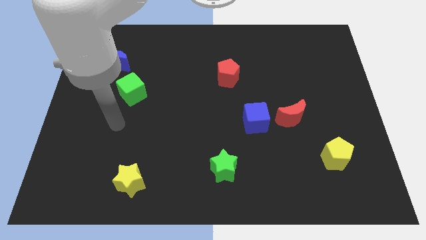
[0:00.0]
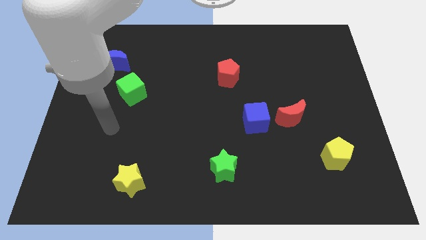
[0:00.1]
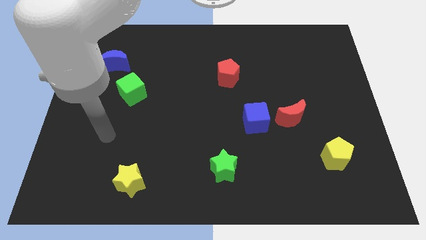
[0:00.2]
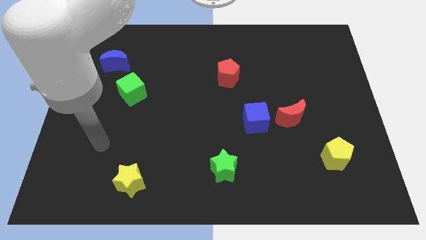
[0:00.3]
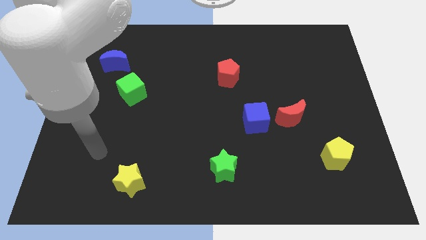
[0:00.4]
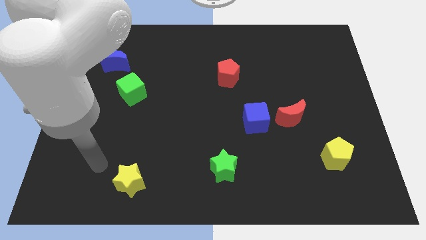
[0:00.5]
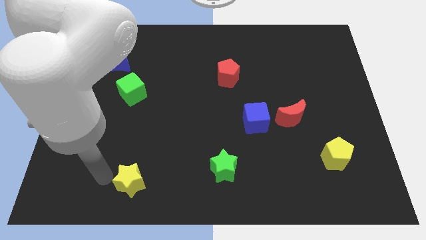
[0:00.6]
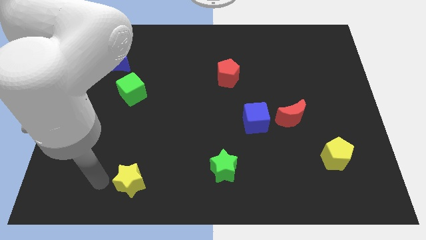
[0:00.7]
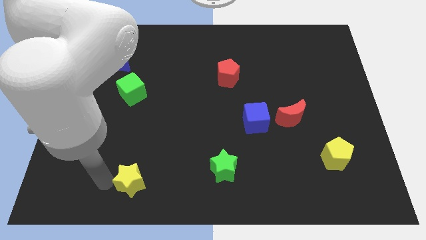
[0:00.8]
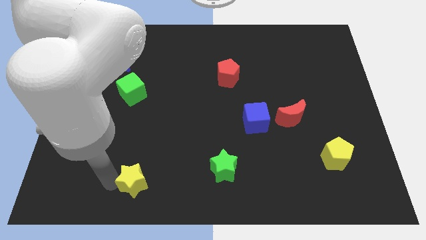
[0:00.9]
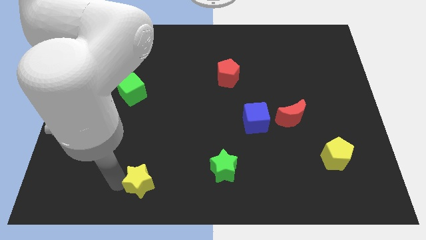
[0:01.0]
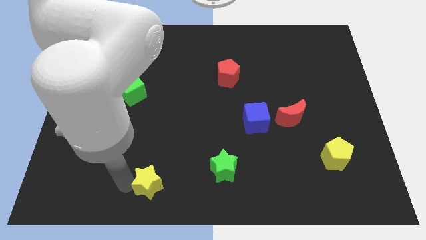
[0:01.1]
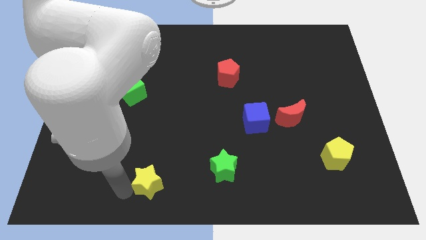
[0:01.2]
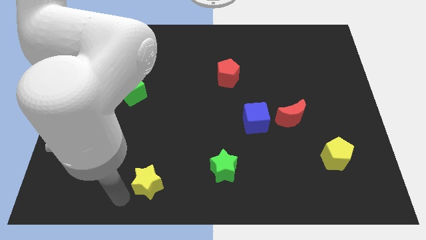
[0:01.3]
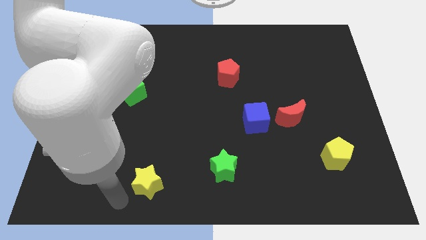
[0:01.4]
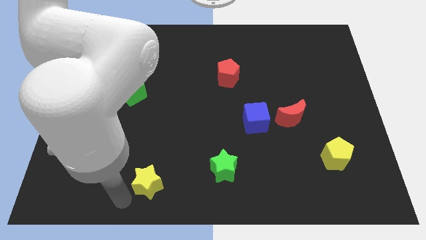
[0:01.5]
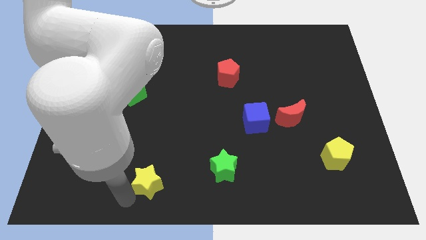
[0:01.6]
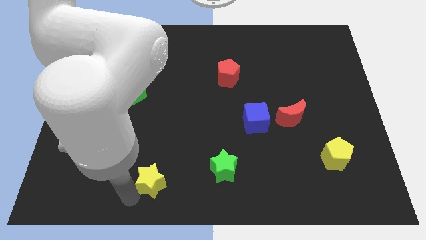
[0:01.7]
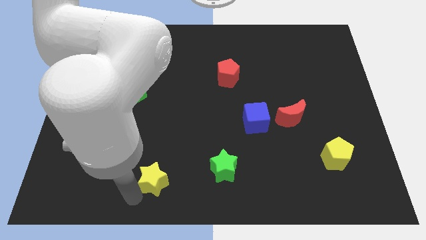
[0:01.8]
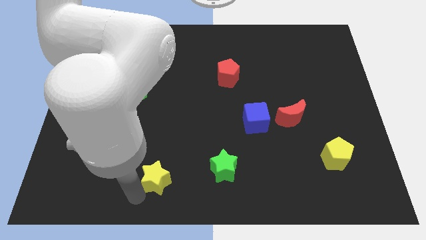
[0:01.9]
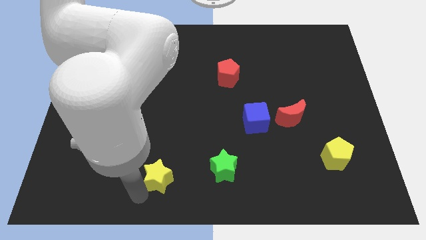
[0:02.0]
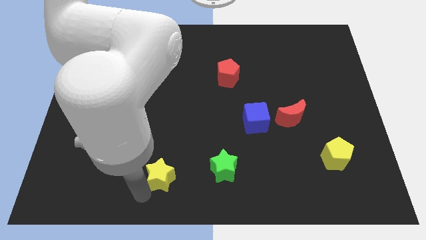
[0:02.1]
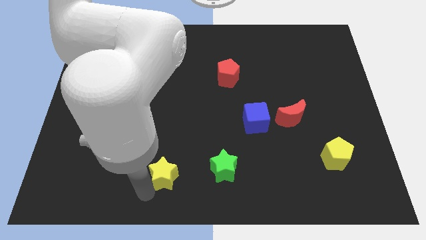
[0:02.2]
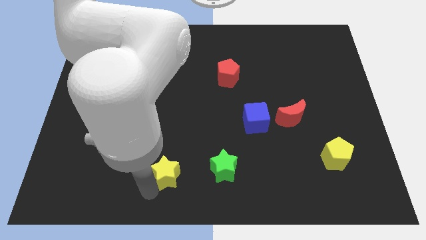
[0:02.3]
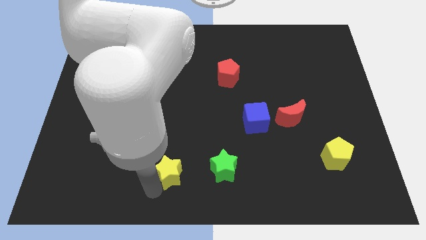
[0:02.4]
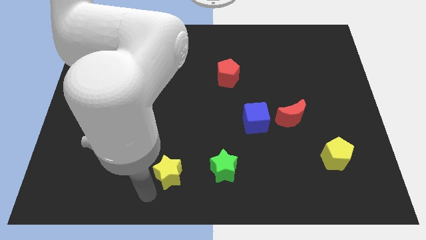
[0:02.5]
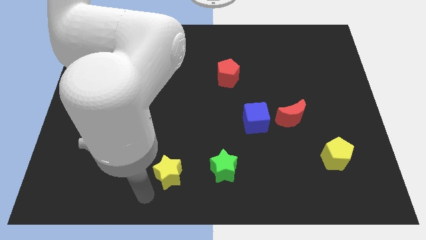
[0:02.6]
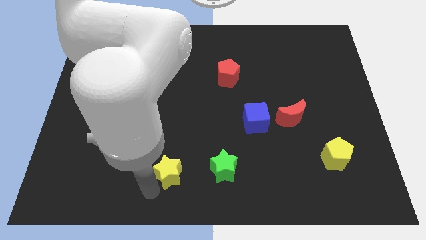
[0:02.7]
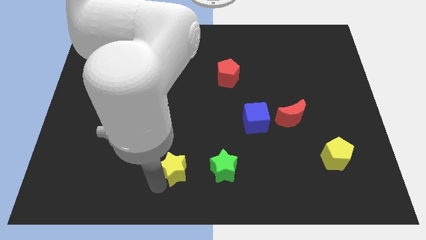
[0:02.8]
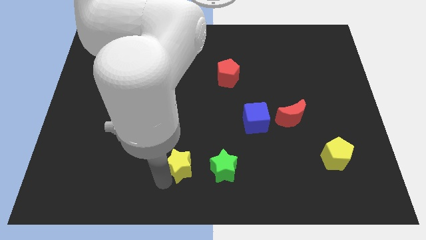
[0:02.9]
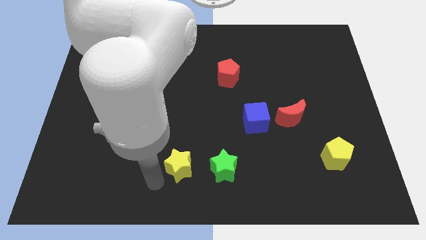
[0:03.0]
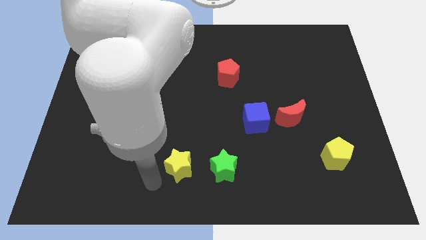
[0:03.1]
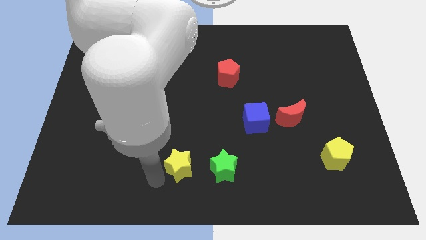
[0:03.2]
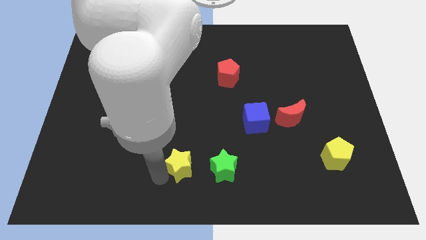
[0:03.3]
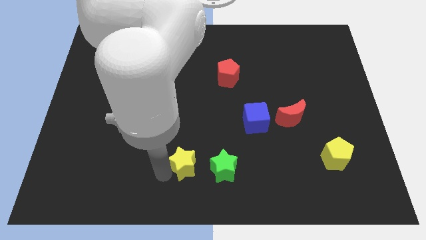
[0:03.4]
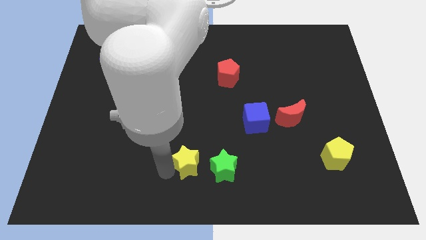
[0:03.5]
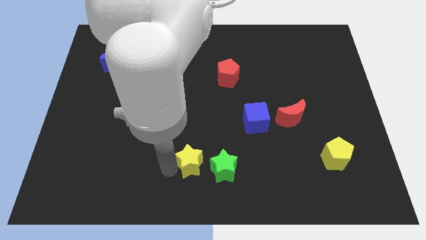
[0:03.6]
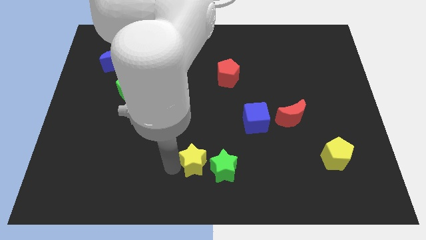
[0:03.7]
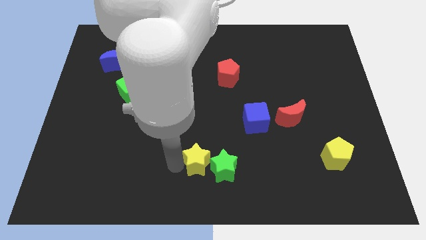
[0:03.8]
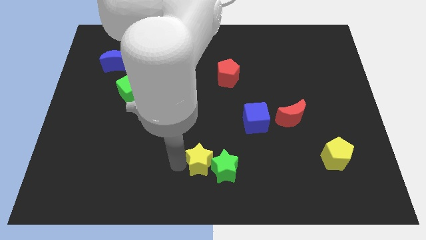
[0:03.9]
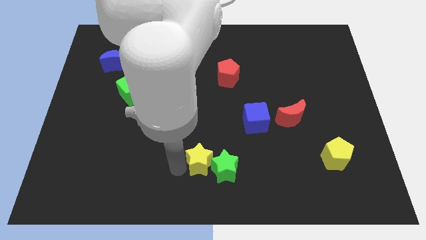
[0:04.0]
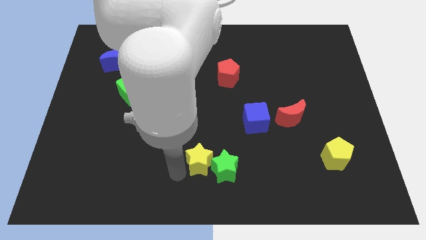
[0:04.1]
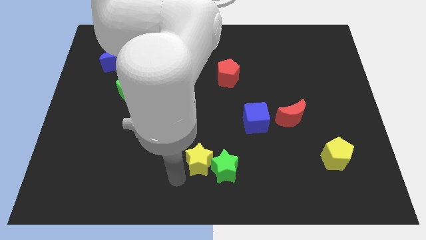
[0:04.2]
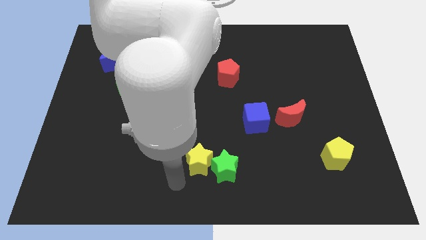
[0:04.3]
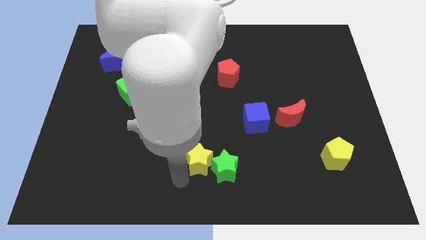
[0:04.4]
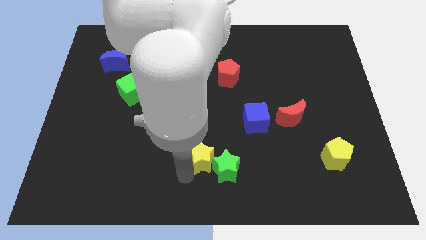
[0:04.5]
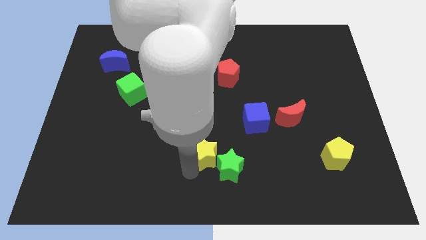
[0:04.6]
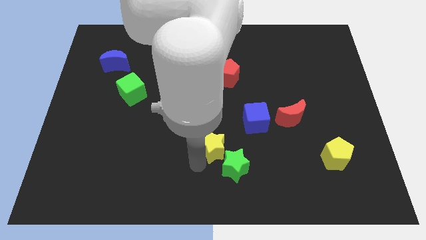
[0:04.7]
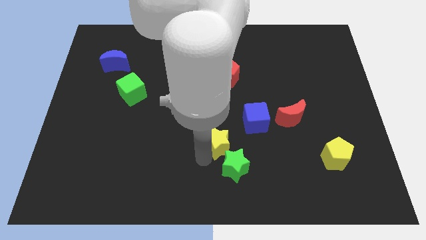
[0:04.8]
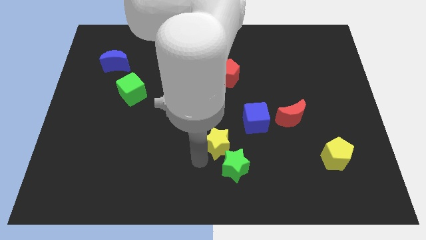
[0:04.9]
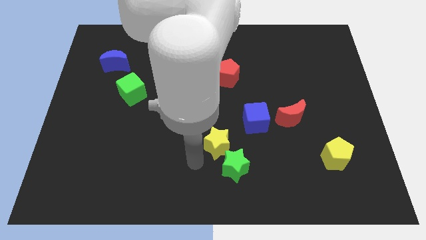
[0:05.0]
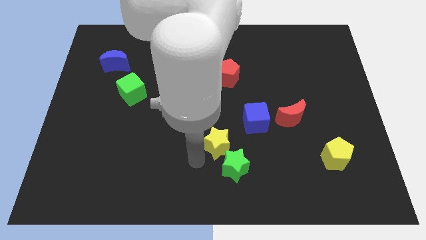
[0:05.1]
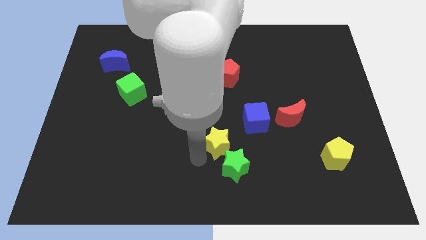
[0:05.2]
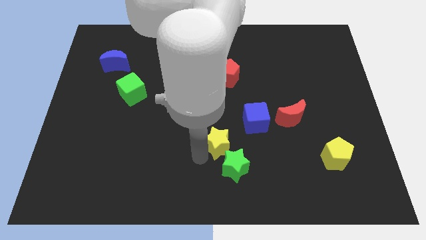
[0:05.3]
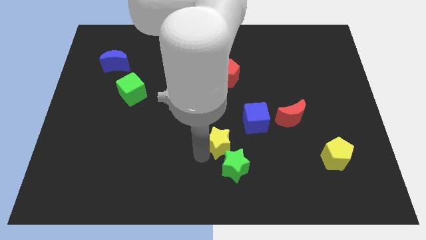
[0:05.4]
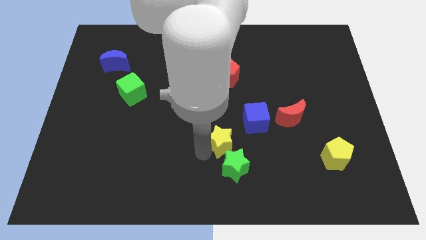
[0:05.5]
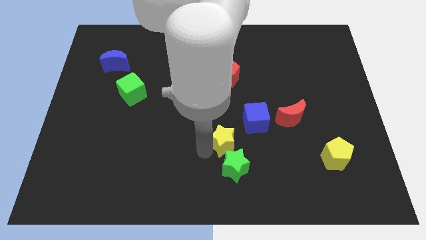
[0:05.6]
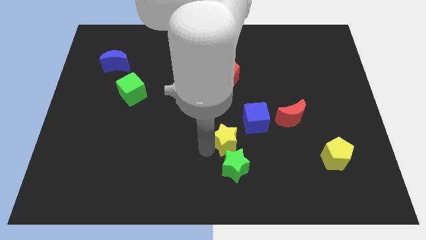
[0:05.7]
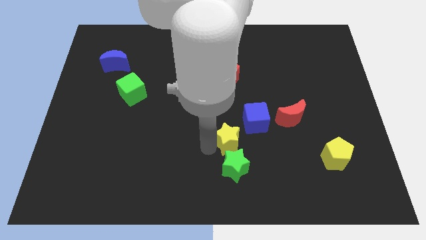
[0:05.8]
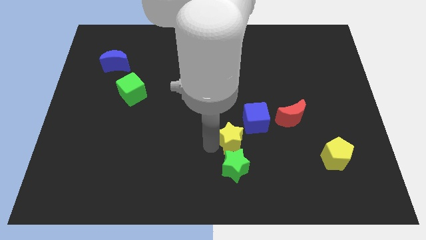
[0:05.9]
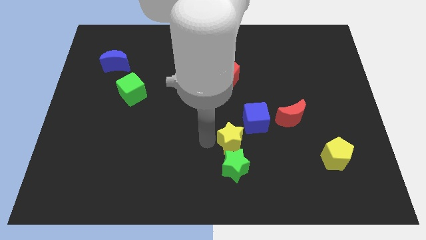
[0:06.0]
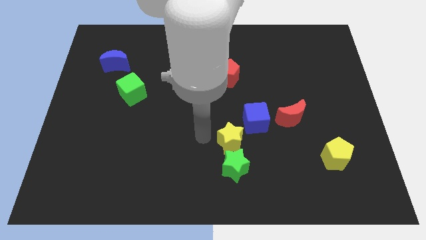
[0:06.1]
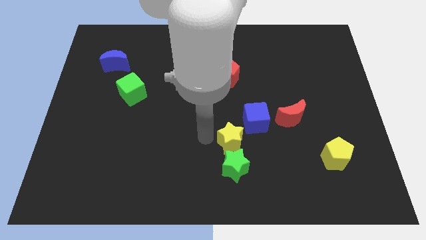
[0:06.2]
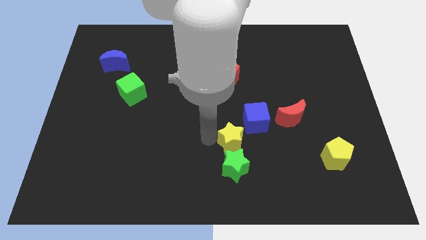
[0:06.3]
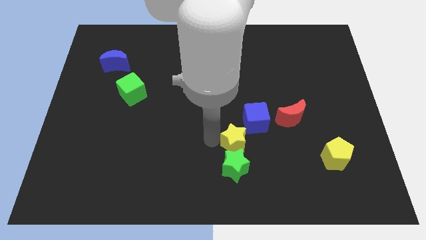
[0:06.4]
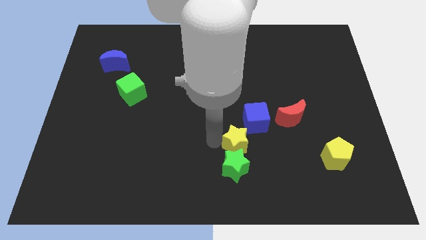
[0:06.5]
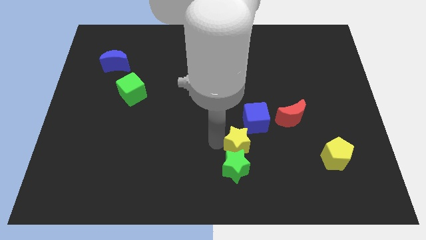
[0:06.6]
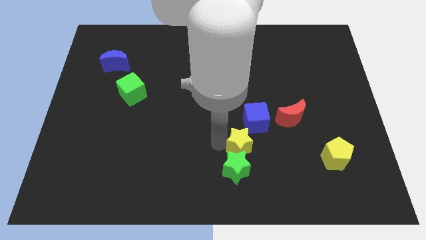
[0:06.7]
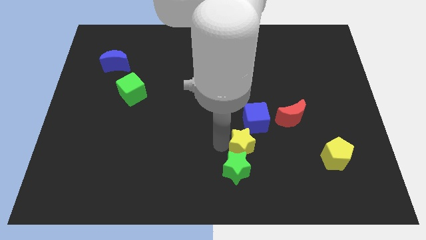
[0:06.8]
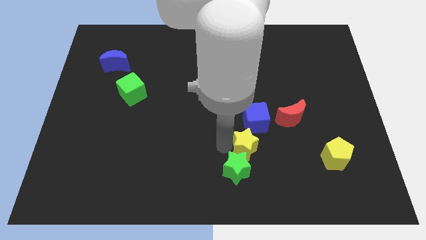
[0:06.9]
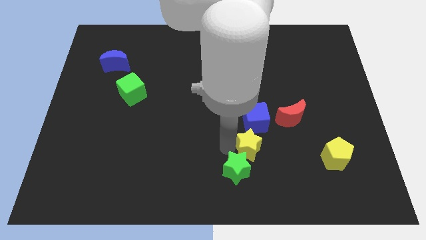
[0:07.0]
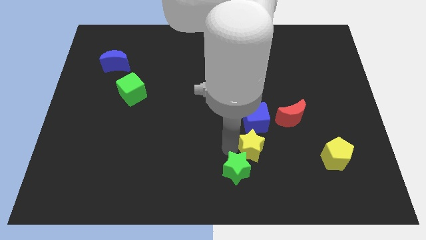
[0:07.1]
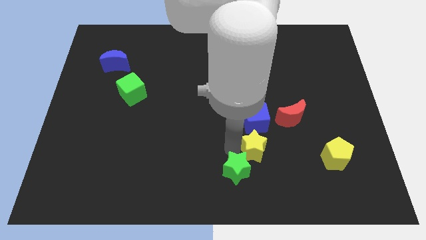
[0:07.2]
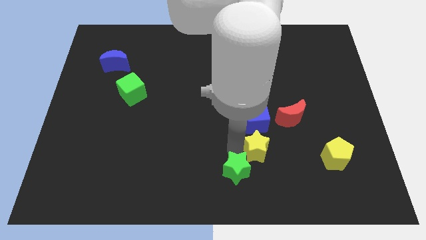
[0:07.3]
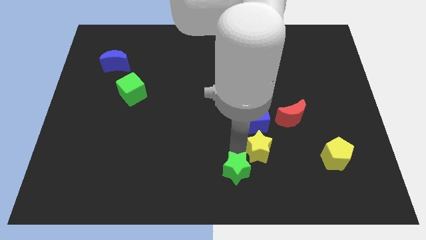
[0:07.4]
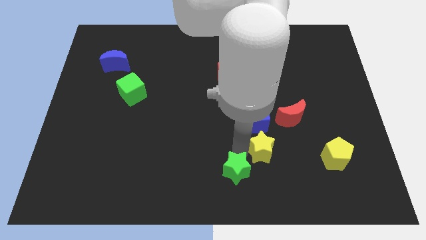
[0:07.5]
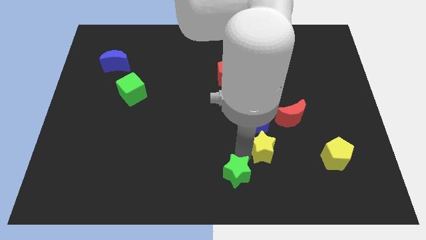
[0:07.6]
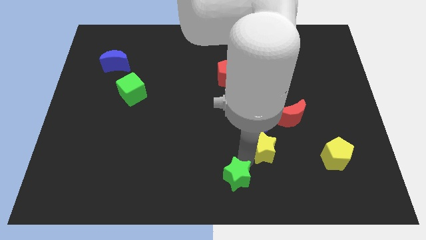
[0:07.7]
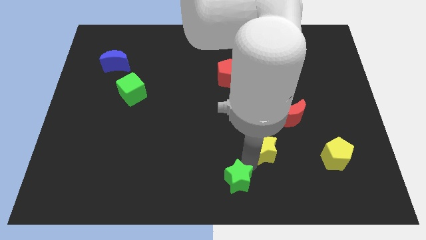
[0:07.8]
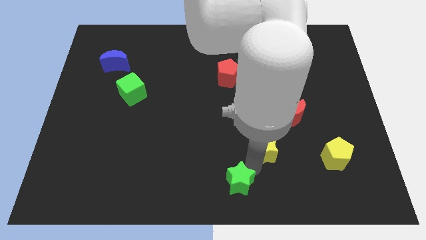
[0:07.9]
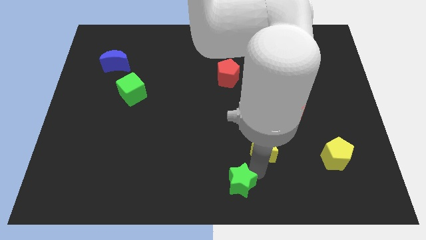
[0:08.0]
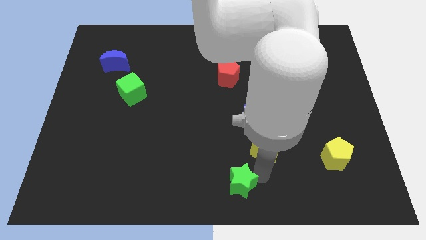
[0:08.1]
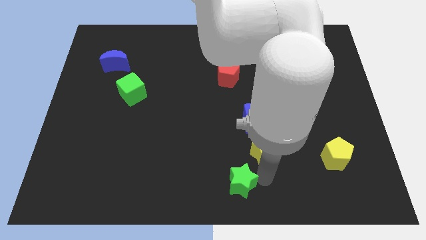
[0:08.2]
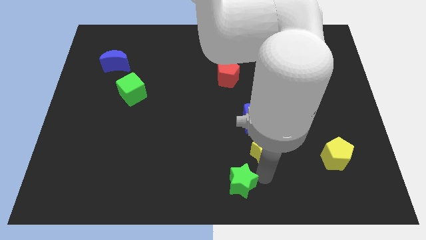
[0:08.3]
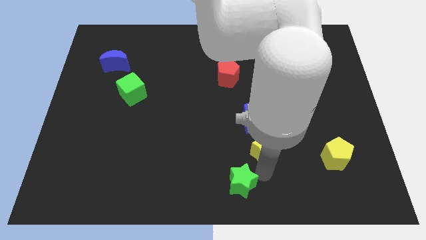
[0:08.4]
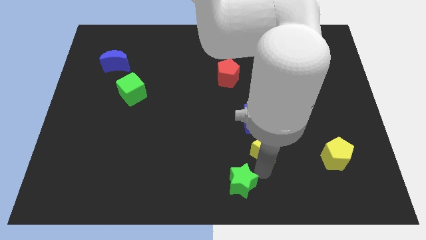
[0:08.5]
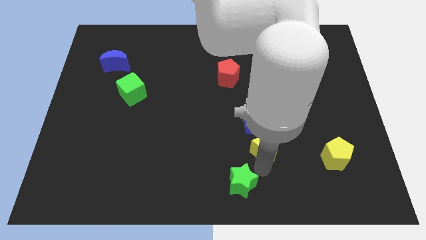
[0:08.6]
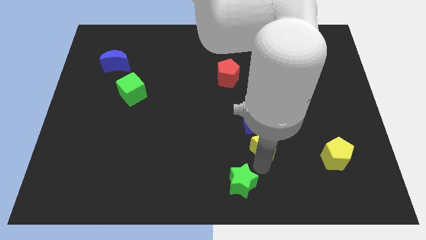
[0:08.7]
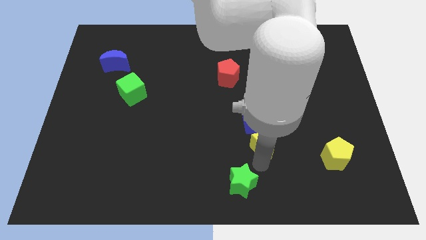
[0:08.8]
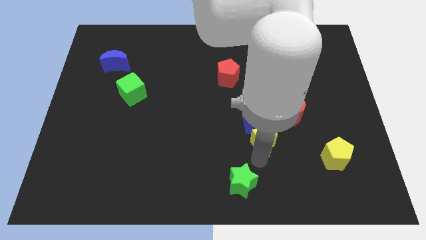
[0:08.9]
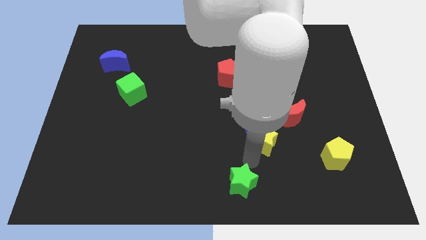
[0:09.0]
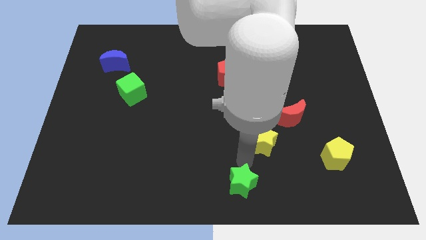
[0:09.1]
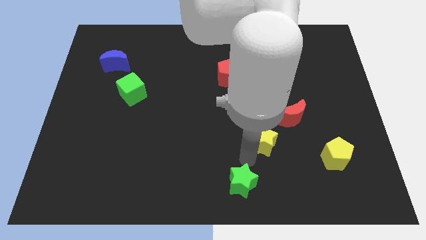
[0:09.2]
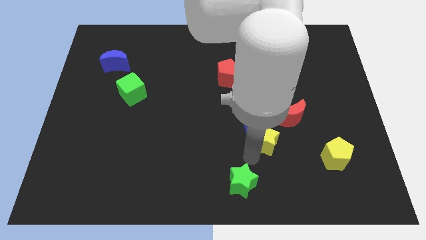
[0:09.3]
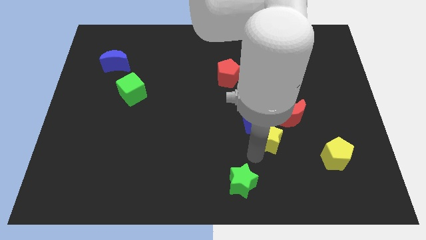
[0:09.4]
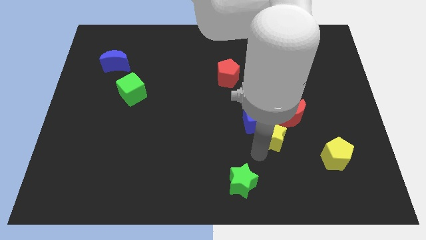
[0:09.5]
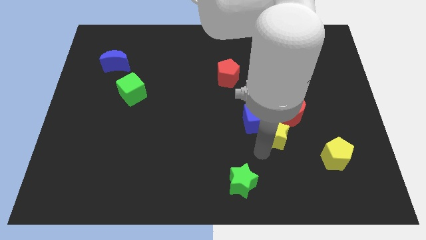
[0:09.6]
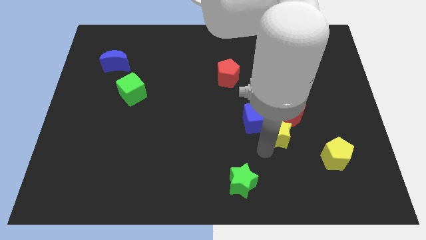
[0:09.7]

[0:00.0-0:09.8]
push the yellow star close to the red moon
